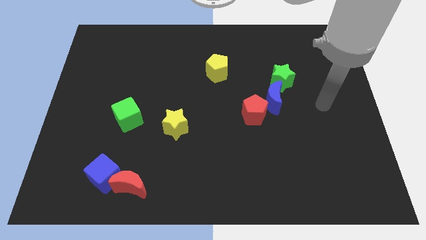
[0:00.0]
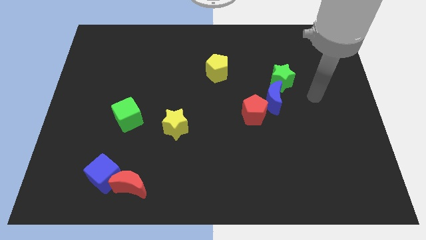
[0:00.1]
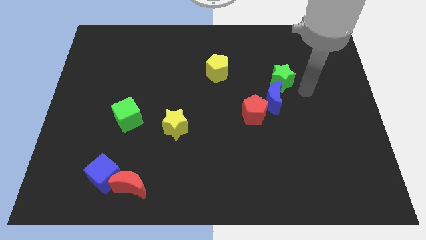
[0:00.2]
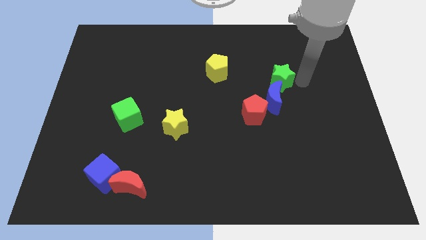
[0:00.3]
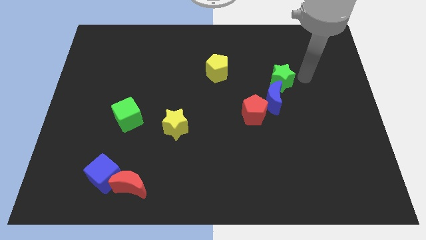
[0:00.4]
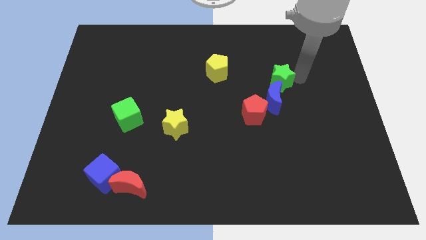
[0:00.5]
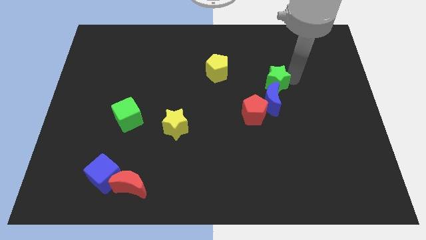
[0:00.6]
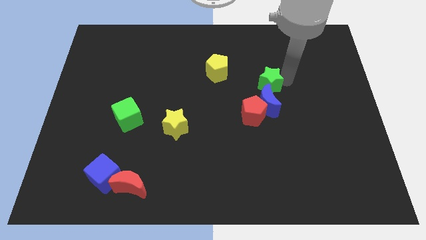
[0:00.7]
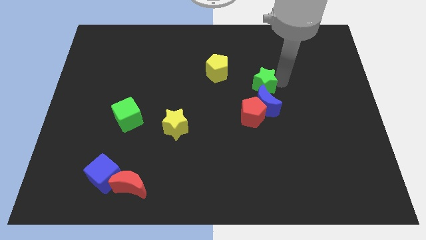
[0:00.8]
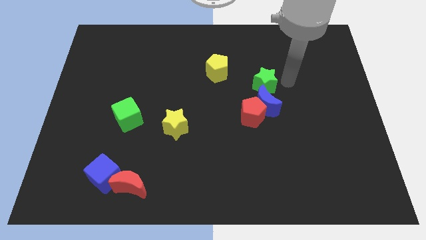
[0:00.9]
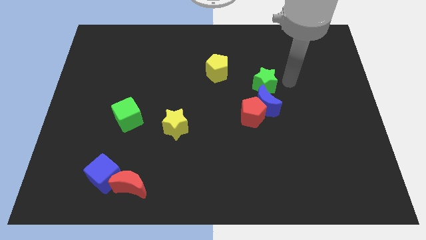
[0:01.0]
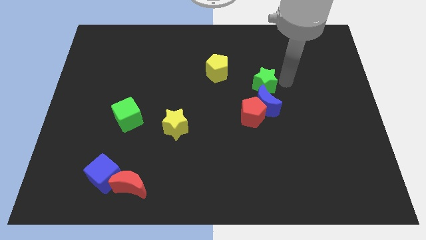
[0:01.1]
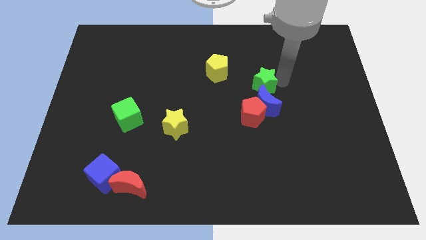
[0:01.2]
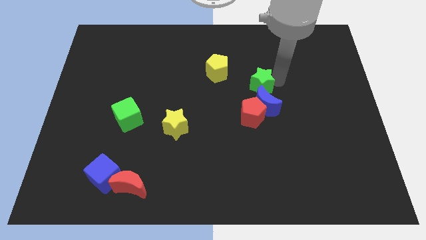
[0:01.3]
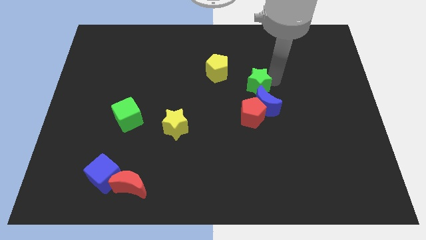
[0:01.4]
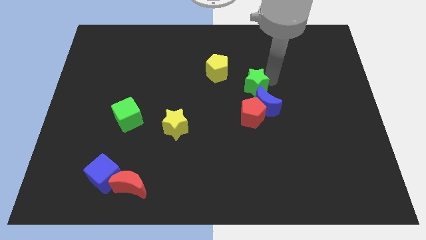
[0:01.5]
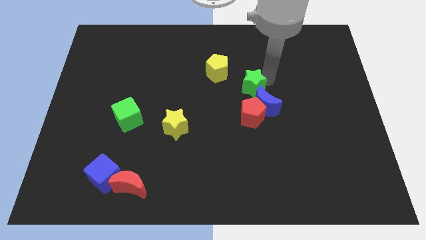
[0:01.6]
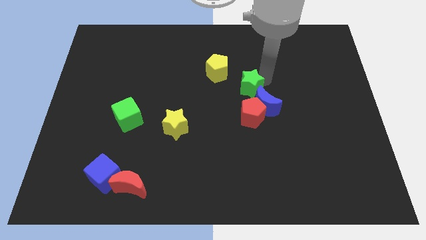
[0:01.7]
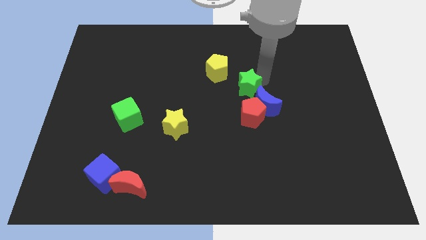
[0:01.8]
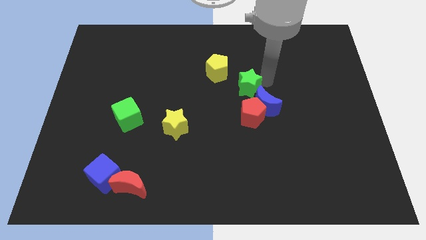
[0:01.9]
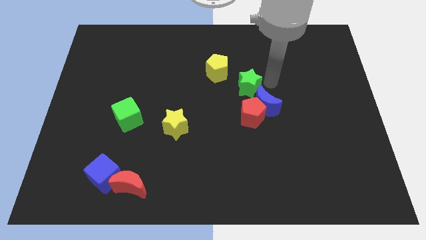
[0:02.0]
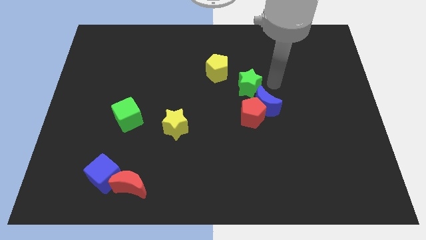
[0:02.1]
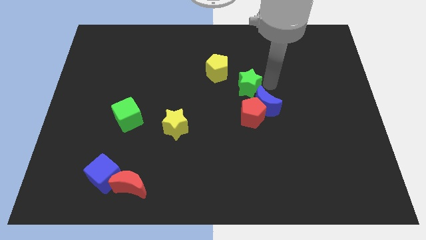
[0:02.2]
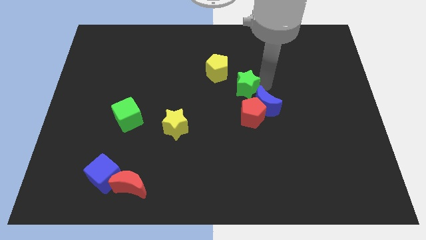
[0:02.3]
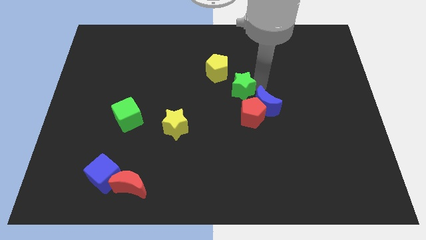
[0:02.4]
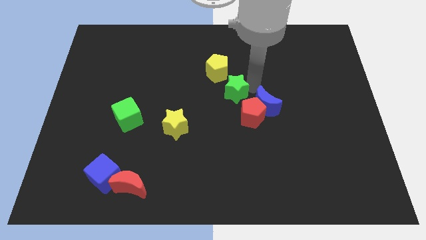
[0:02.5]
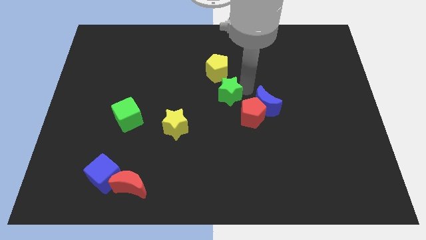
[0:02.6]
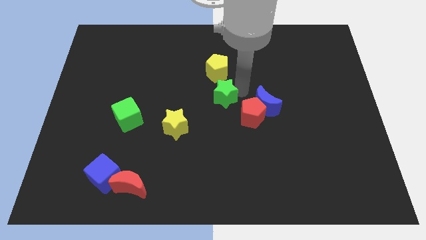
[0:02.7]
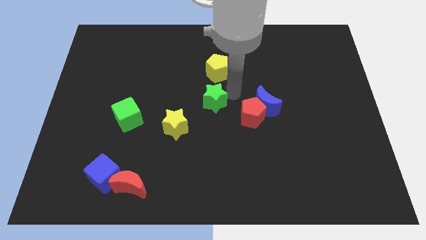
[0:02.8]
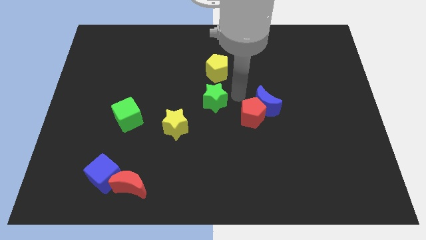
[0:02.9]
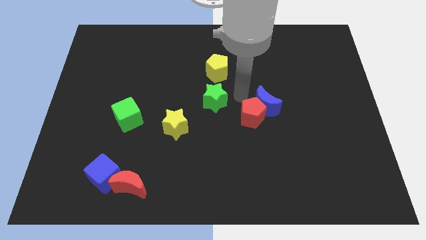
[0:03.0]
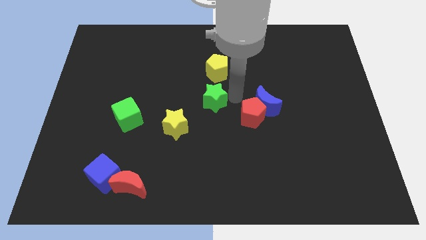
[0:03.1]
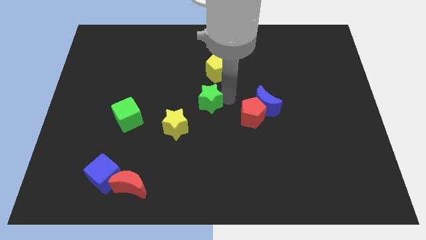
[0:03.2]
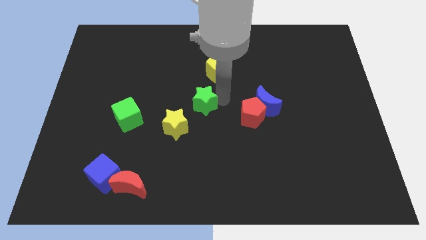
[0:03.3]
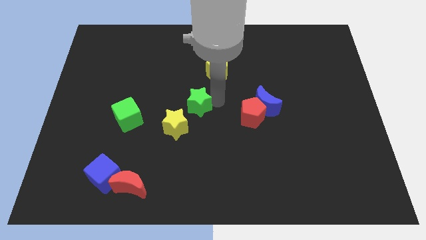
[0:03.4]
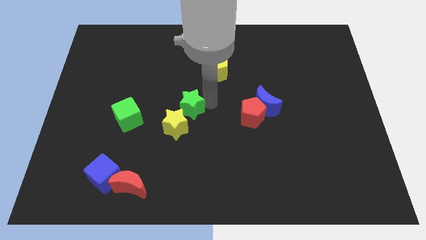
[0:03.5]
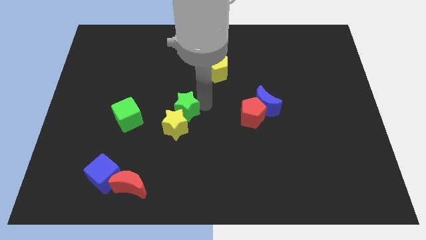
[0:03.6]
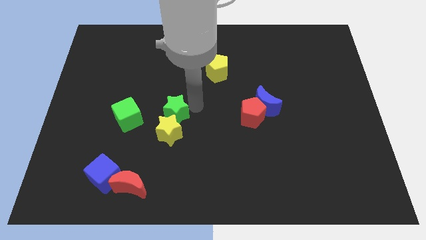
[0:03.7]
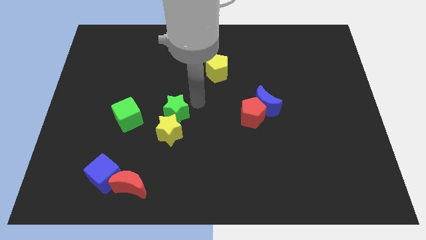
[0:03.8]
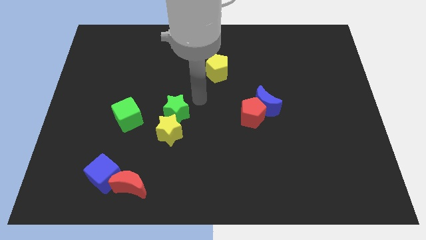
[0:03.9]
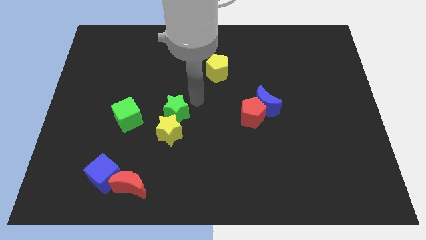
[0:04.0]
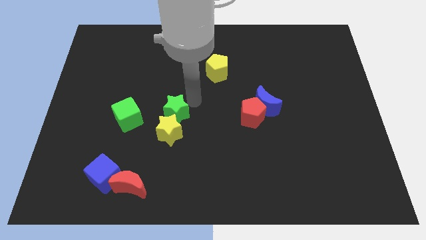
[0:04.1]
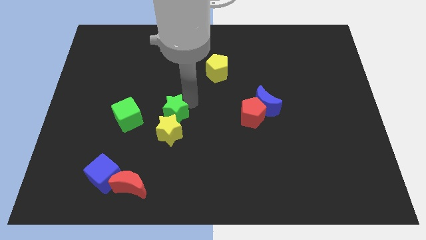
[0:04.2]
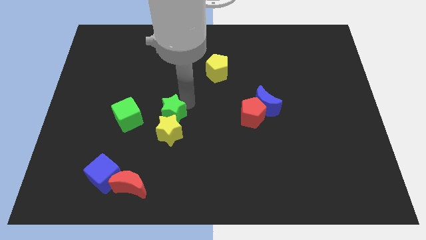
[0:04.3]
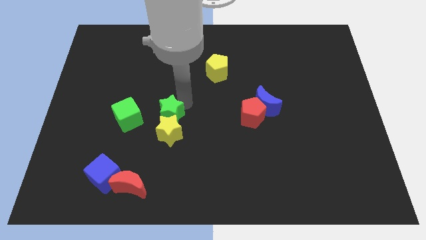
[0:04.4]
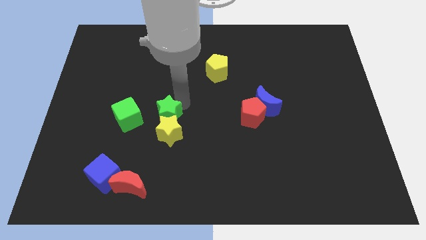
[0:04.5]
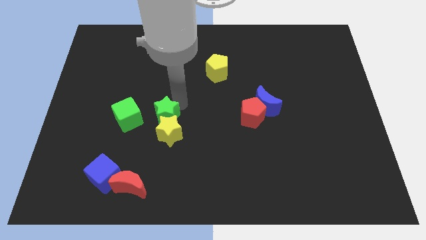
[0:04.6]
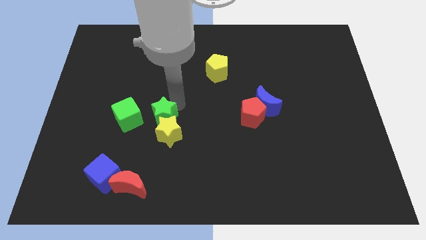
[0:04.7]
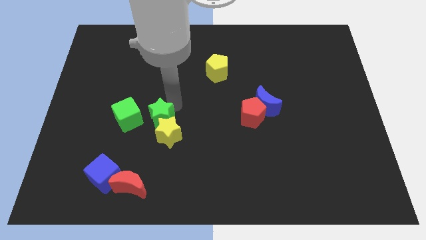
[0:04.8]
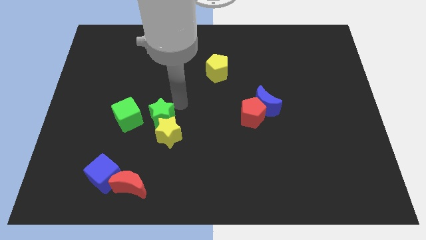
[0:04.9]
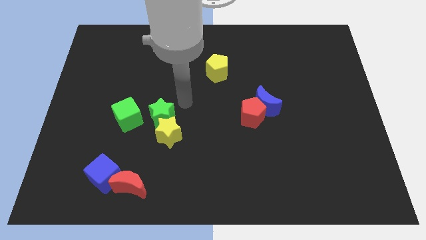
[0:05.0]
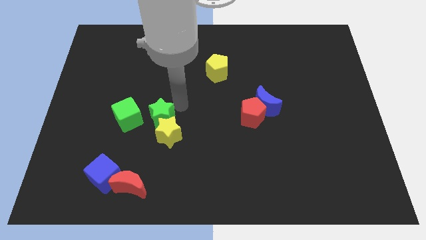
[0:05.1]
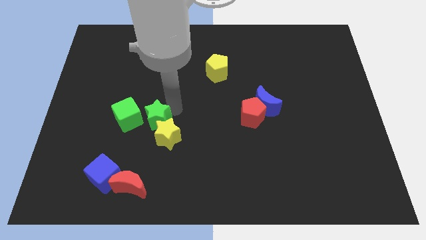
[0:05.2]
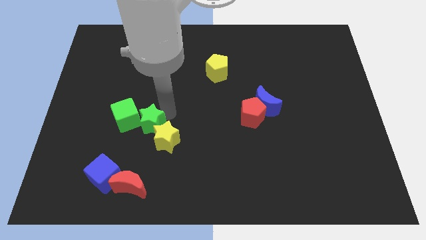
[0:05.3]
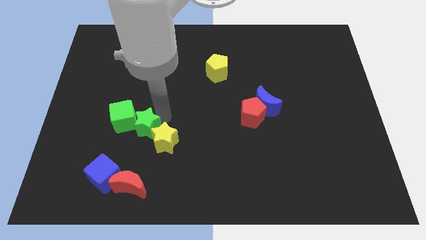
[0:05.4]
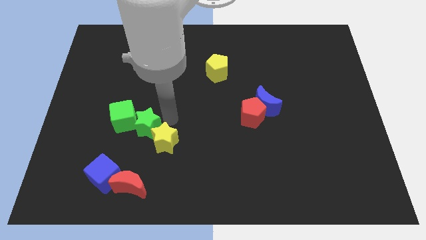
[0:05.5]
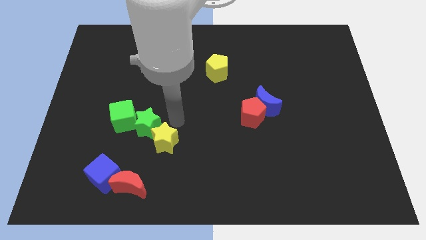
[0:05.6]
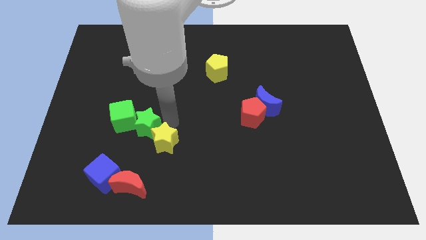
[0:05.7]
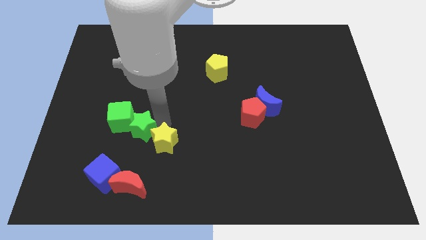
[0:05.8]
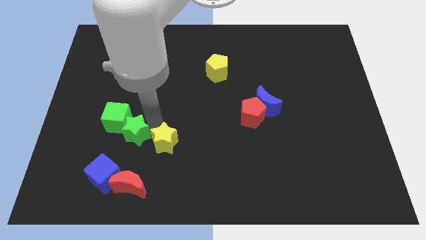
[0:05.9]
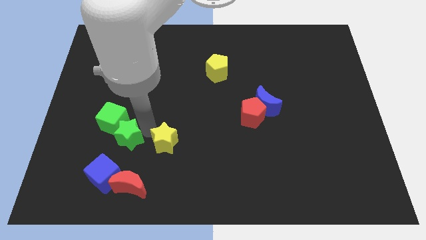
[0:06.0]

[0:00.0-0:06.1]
push the green star to the top of the blue cube

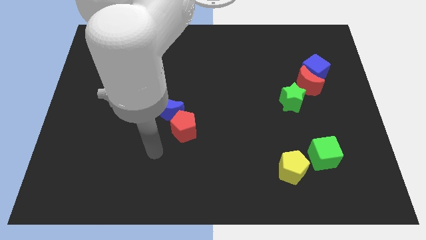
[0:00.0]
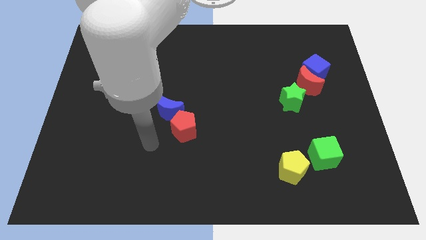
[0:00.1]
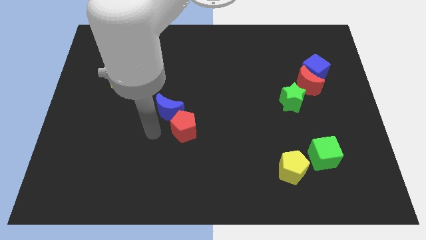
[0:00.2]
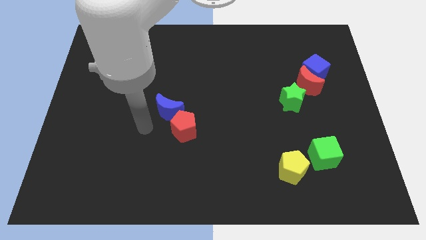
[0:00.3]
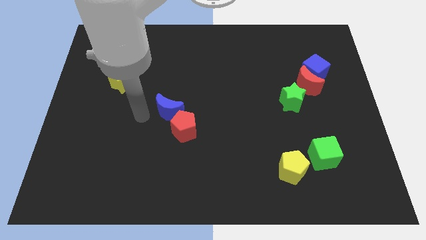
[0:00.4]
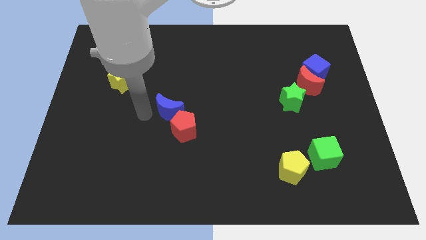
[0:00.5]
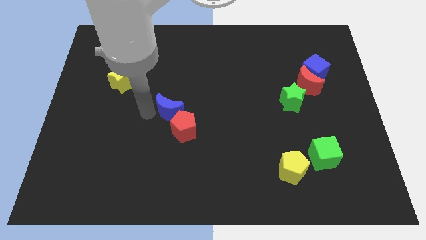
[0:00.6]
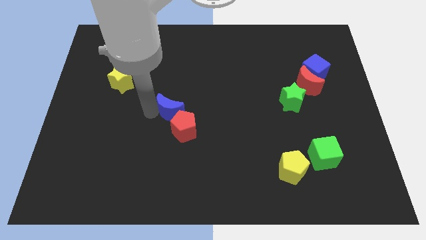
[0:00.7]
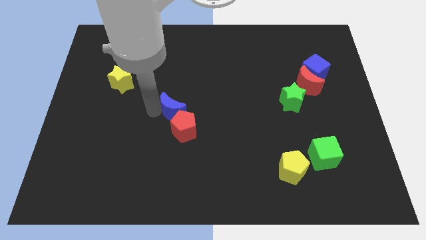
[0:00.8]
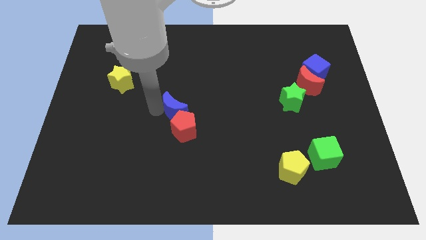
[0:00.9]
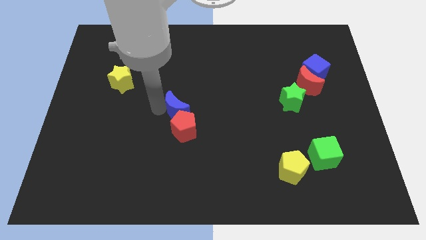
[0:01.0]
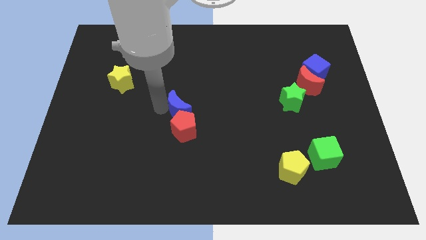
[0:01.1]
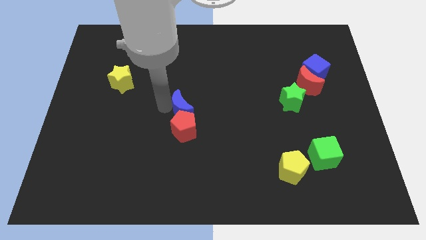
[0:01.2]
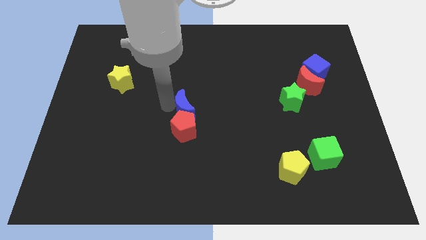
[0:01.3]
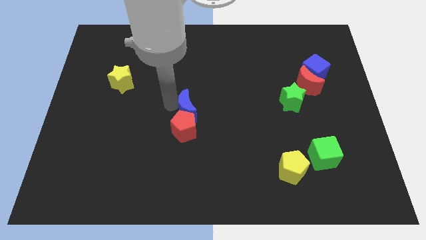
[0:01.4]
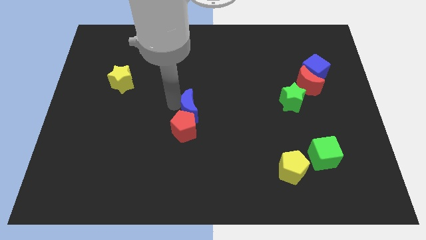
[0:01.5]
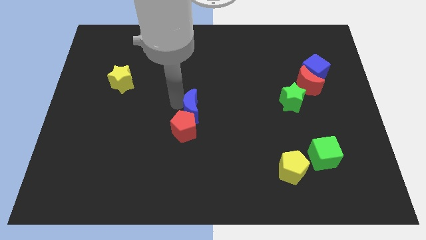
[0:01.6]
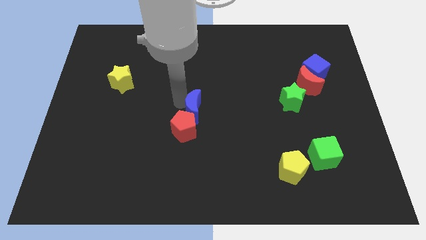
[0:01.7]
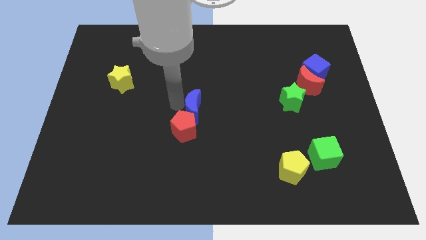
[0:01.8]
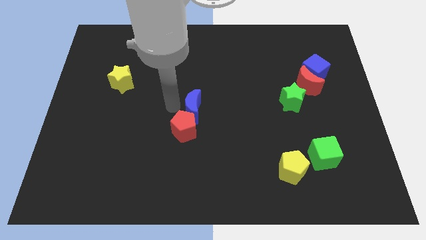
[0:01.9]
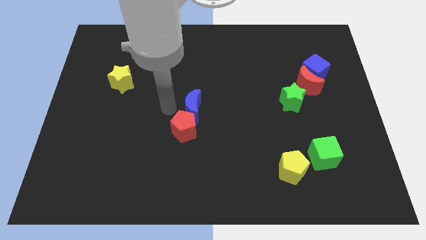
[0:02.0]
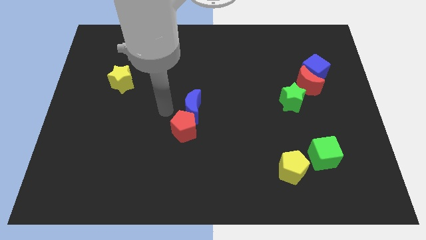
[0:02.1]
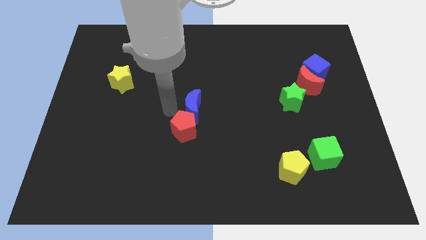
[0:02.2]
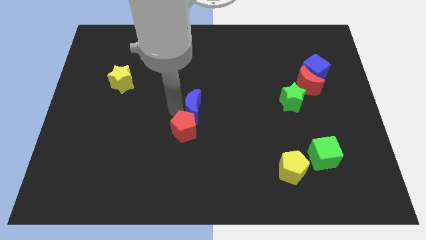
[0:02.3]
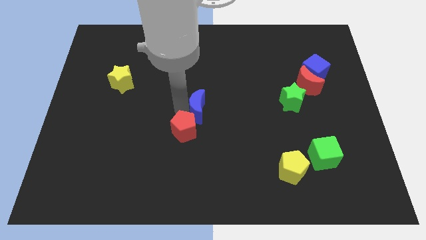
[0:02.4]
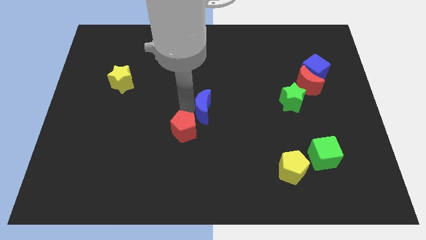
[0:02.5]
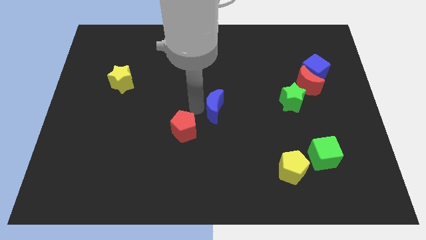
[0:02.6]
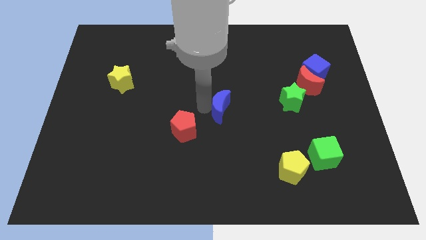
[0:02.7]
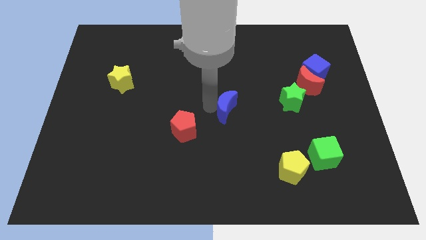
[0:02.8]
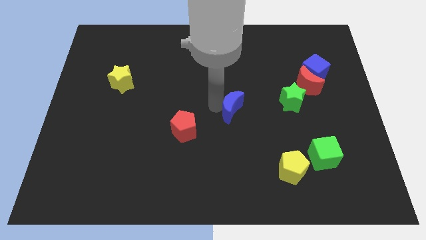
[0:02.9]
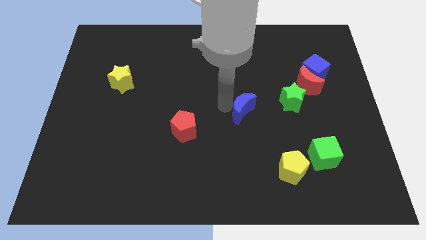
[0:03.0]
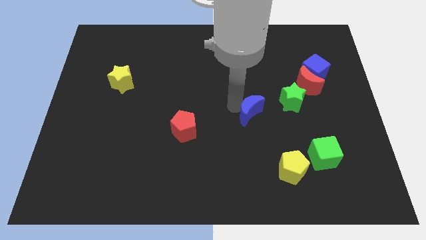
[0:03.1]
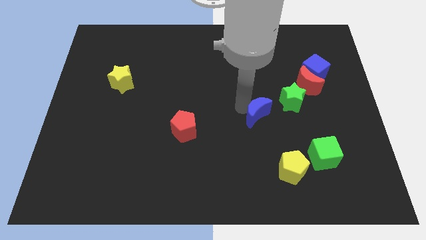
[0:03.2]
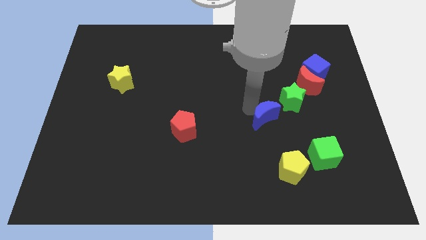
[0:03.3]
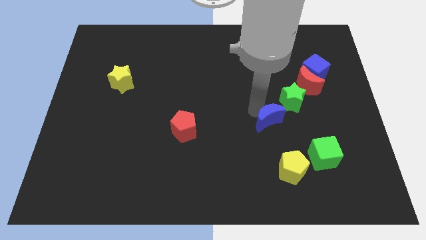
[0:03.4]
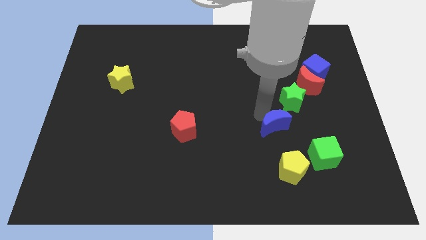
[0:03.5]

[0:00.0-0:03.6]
slide the blue moon to the top left of the green cube
